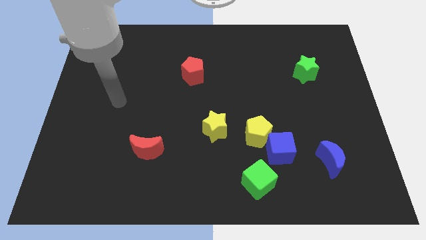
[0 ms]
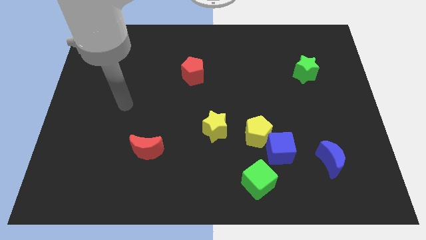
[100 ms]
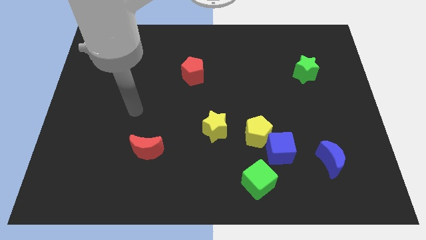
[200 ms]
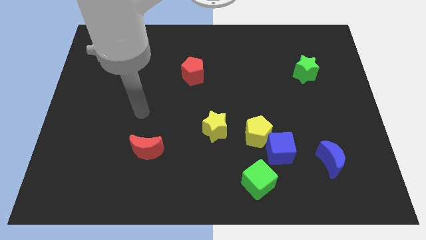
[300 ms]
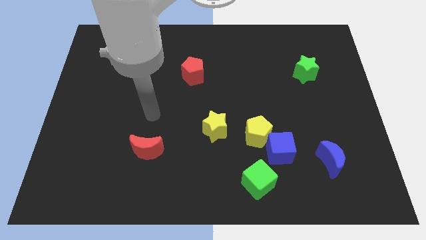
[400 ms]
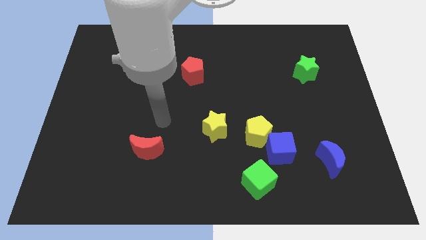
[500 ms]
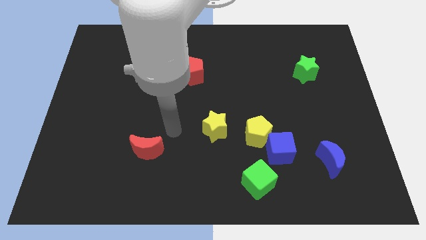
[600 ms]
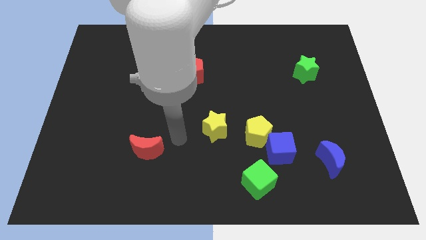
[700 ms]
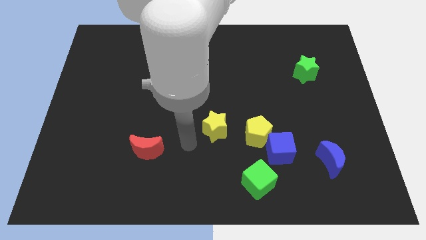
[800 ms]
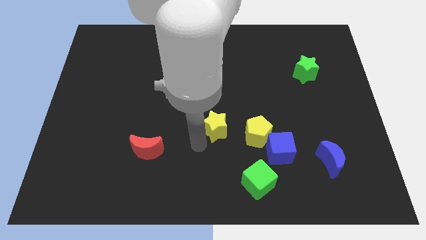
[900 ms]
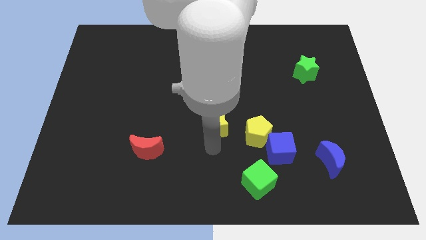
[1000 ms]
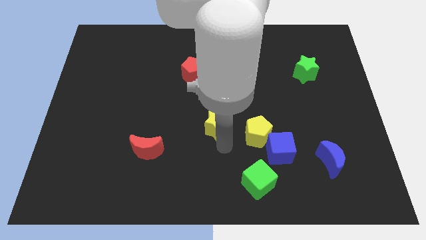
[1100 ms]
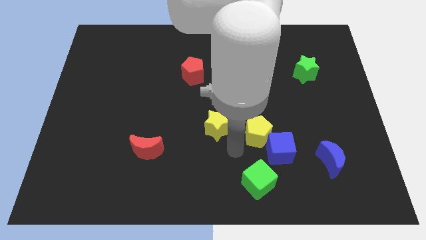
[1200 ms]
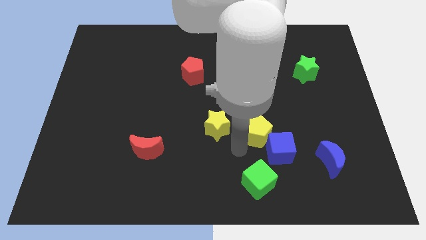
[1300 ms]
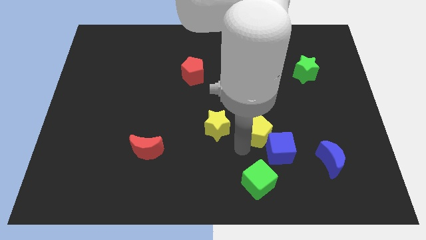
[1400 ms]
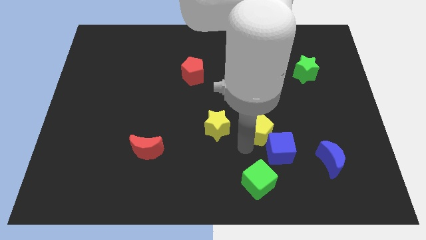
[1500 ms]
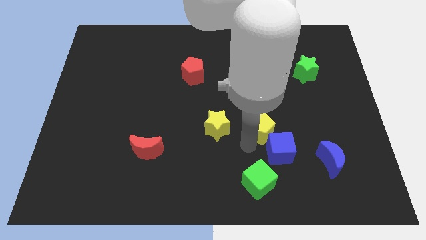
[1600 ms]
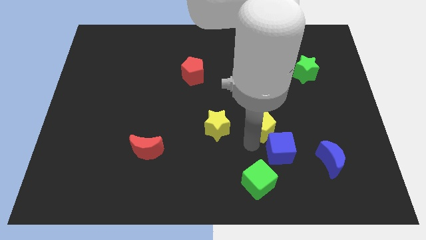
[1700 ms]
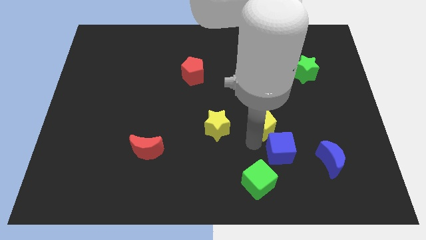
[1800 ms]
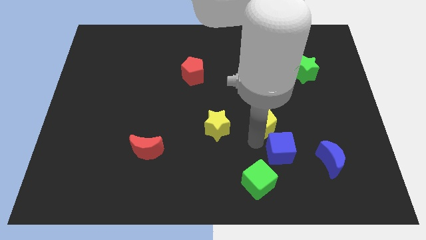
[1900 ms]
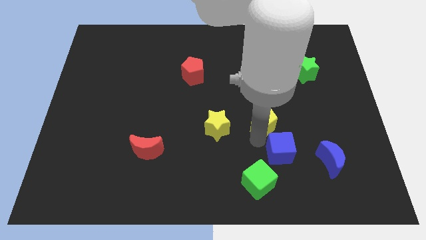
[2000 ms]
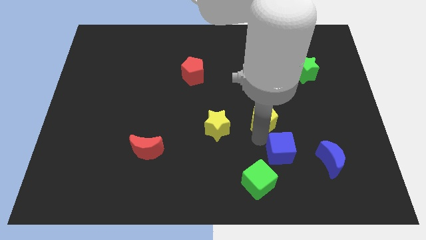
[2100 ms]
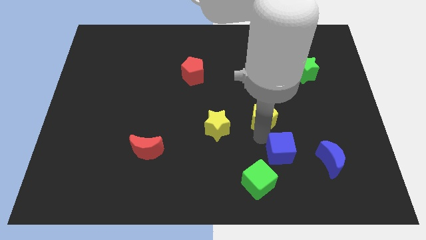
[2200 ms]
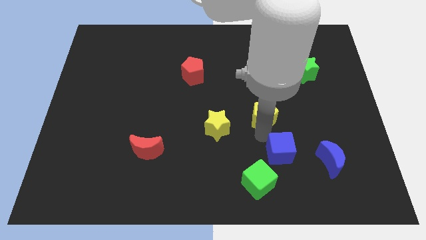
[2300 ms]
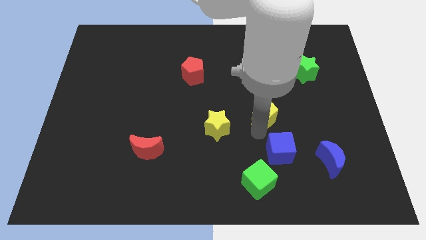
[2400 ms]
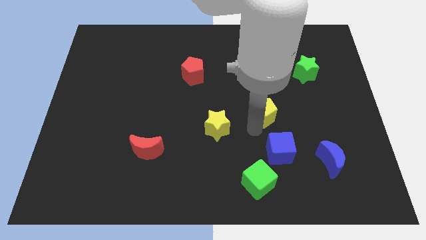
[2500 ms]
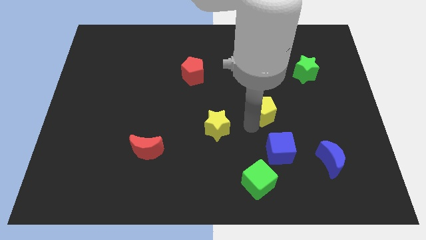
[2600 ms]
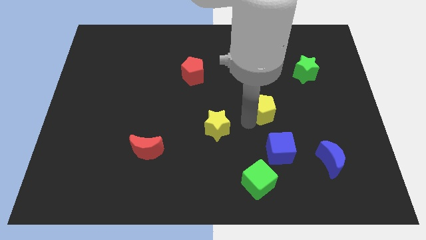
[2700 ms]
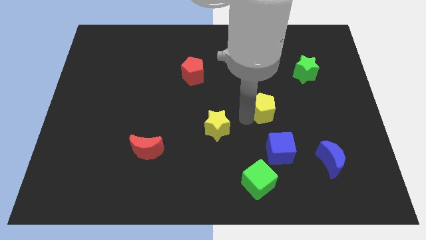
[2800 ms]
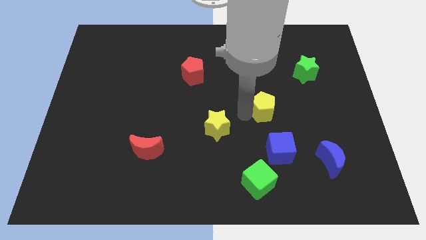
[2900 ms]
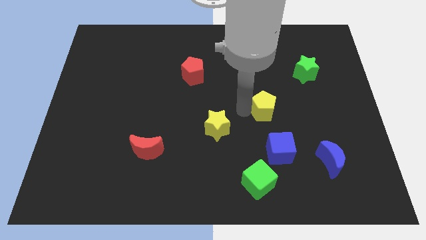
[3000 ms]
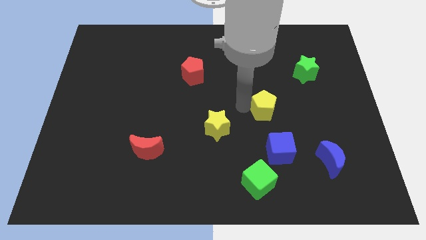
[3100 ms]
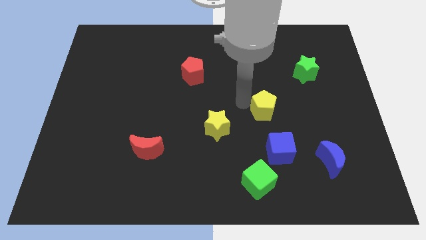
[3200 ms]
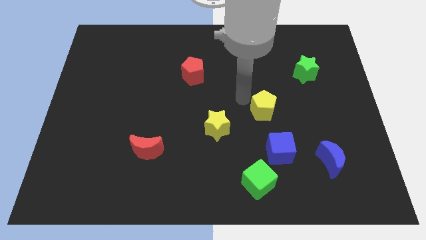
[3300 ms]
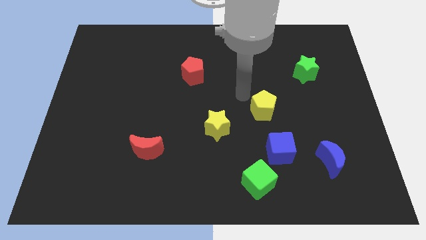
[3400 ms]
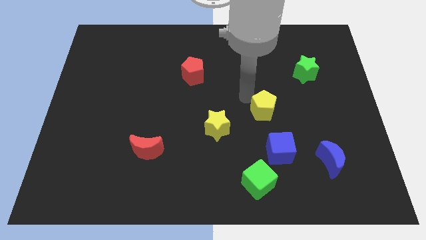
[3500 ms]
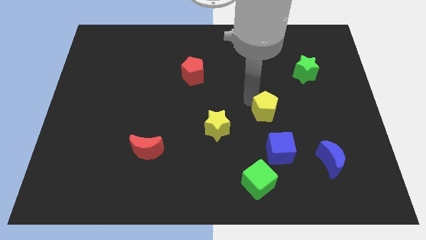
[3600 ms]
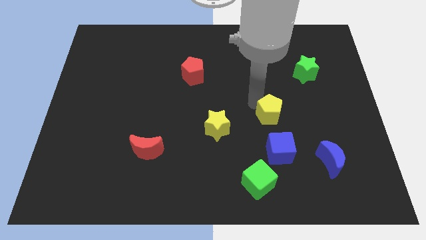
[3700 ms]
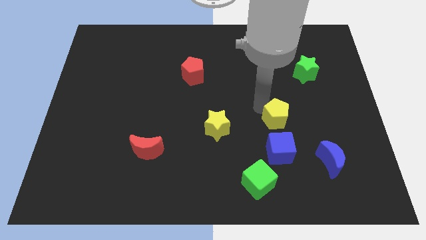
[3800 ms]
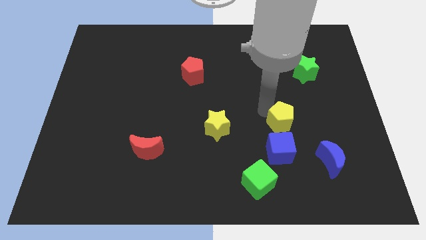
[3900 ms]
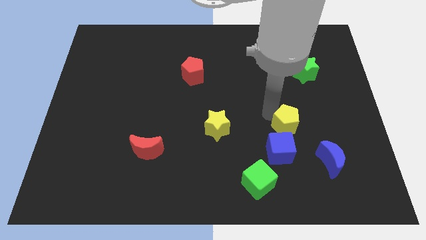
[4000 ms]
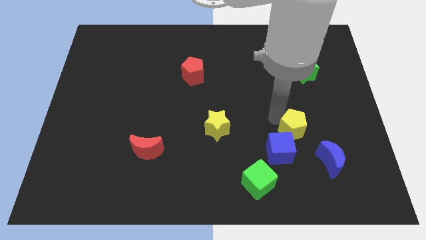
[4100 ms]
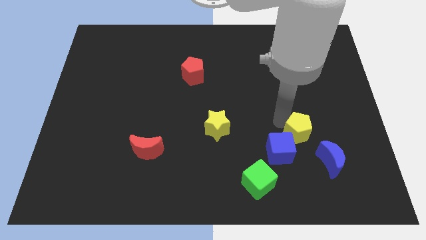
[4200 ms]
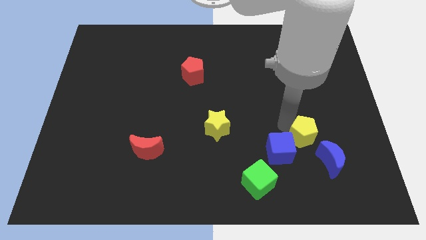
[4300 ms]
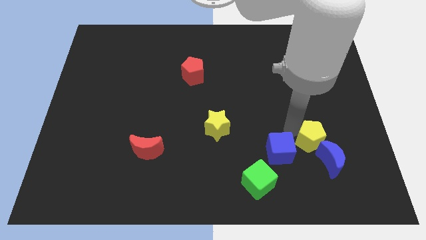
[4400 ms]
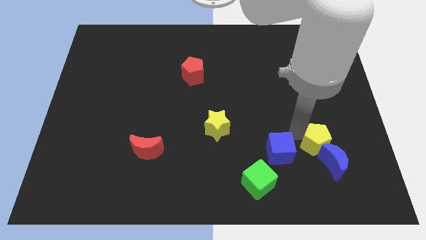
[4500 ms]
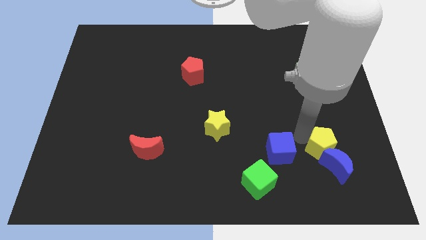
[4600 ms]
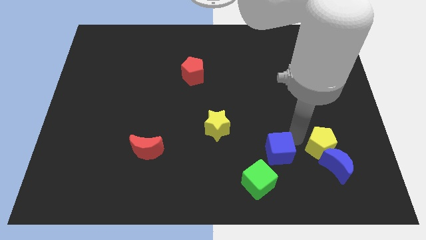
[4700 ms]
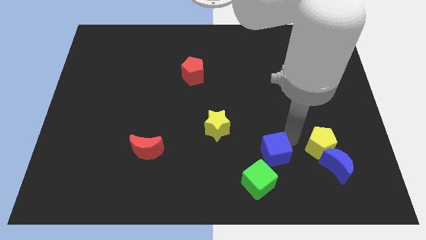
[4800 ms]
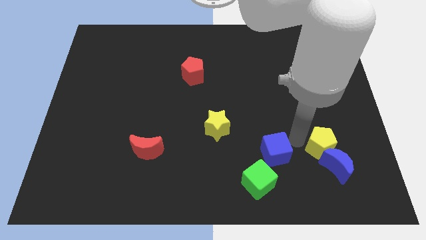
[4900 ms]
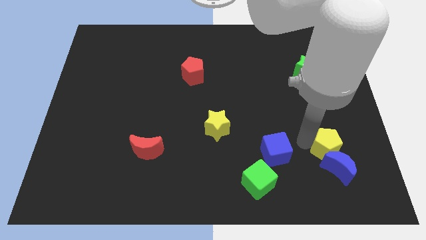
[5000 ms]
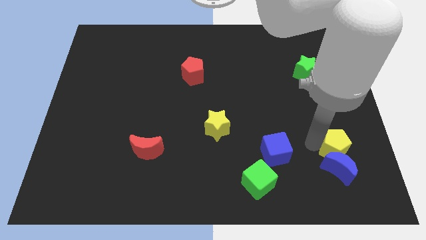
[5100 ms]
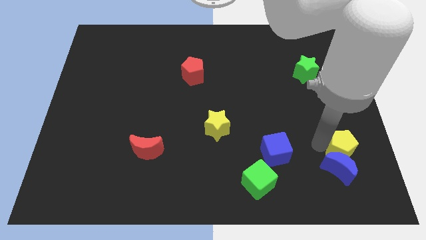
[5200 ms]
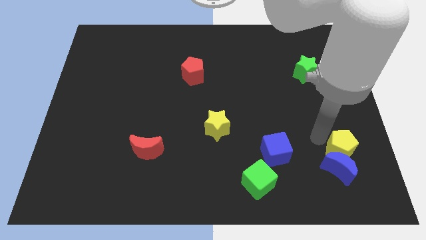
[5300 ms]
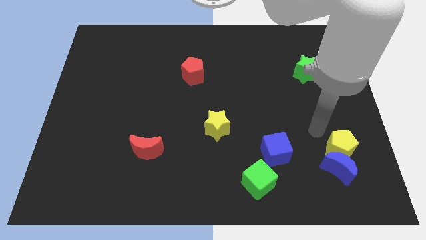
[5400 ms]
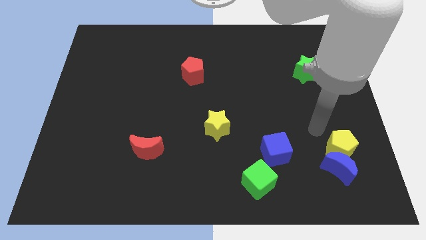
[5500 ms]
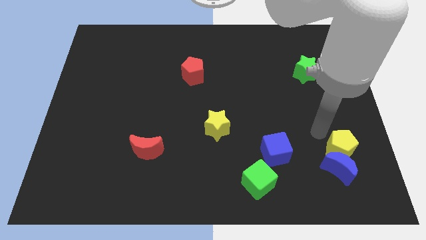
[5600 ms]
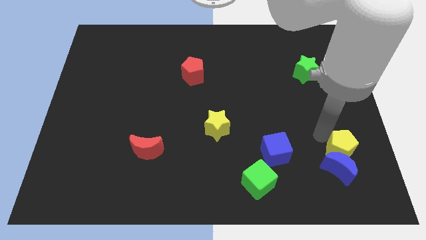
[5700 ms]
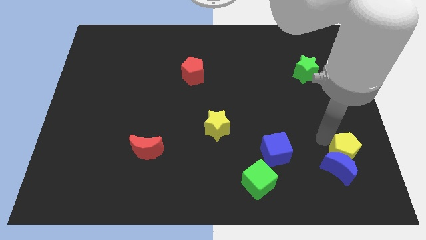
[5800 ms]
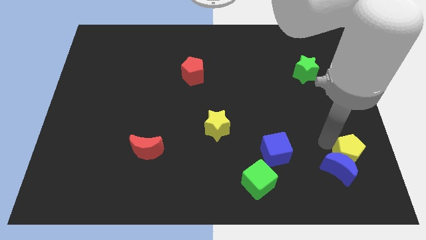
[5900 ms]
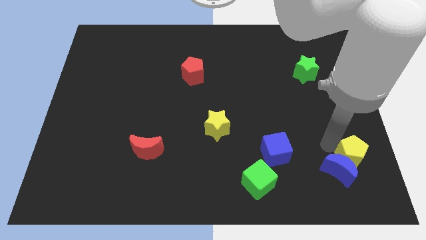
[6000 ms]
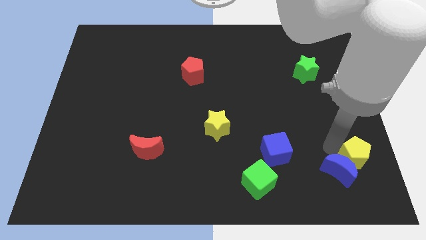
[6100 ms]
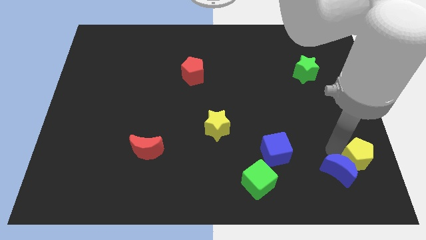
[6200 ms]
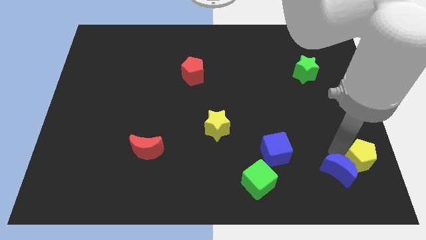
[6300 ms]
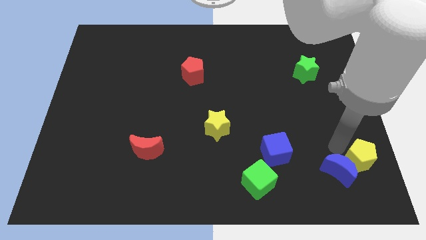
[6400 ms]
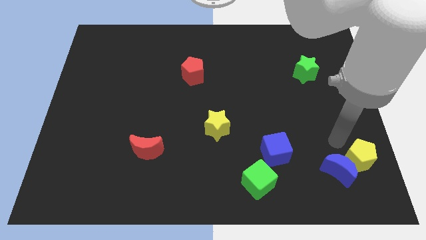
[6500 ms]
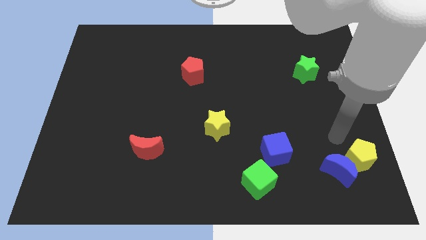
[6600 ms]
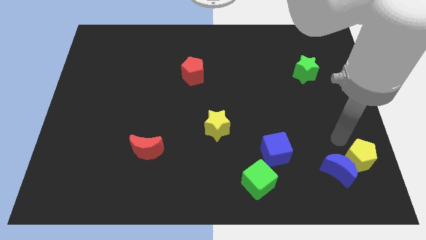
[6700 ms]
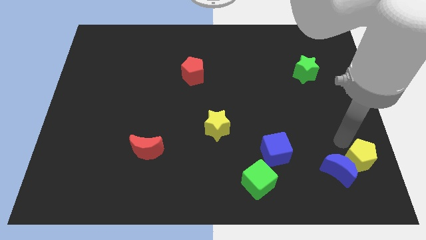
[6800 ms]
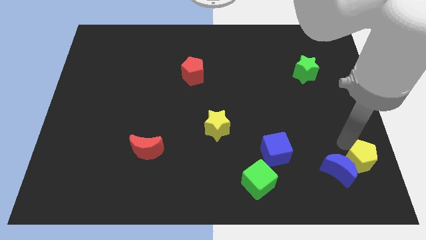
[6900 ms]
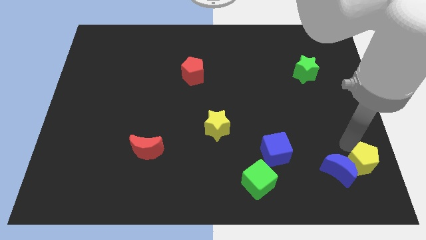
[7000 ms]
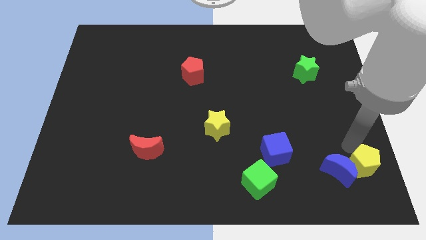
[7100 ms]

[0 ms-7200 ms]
push the yellow pentagon to the bottom right corner
